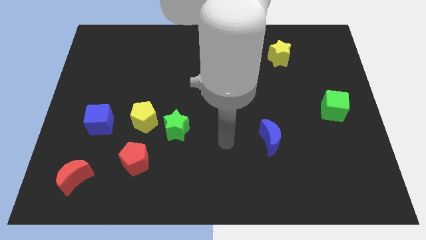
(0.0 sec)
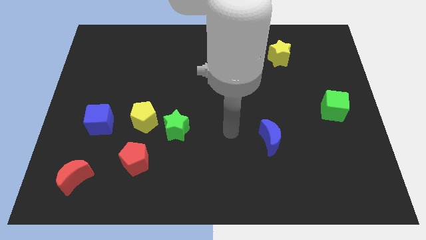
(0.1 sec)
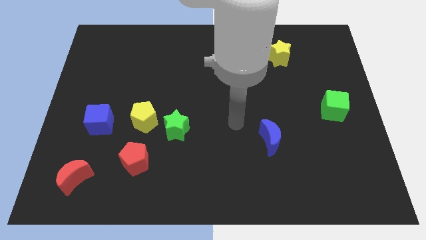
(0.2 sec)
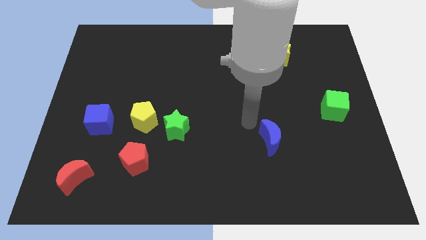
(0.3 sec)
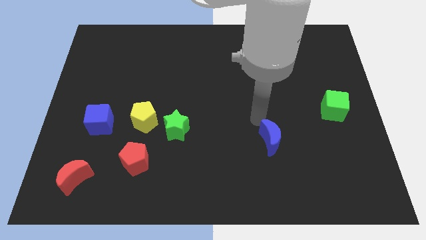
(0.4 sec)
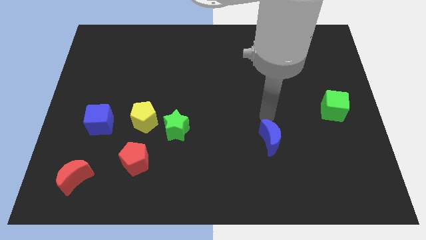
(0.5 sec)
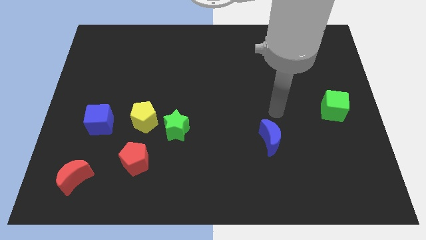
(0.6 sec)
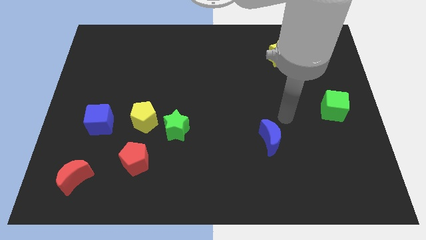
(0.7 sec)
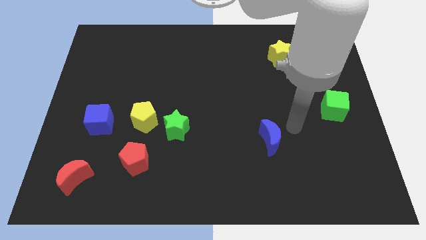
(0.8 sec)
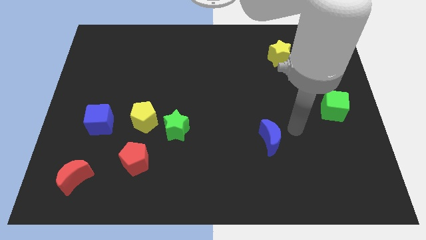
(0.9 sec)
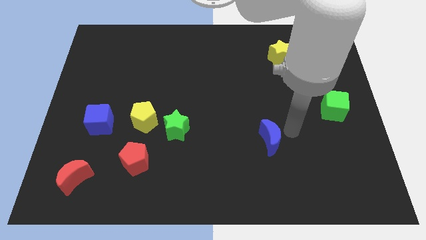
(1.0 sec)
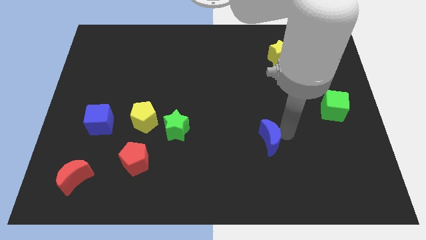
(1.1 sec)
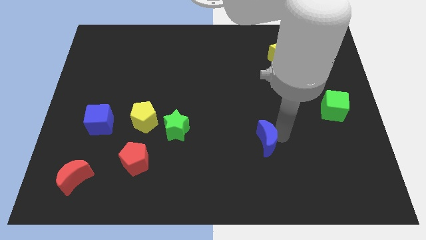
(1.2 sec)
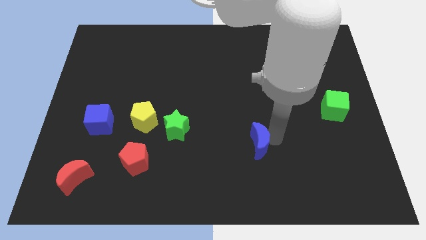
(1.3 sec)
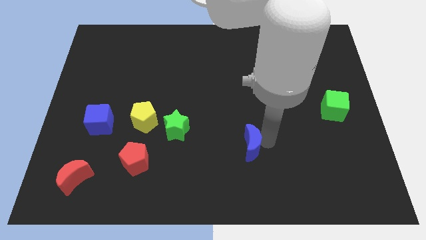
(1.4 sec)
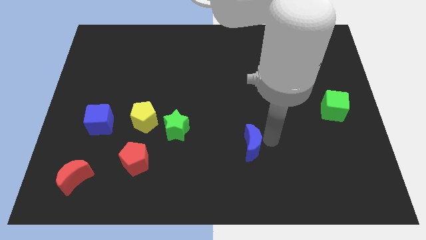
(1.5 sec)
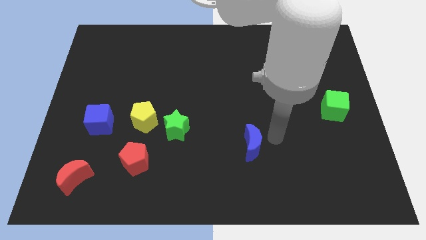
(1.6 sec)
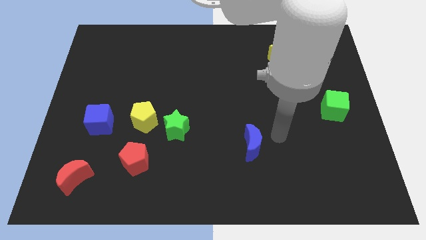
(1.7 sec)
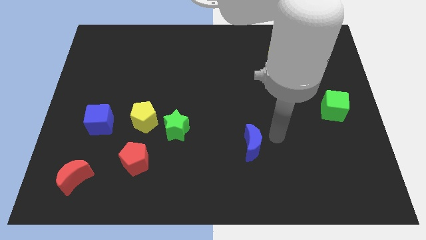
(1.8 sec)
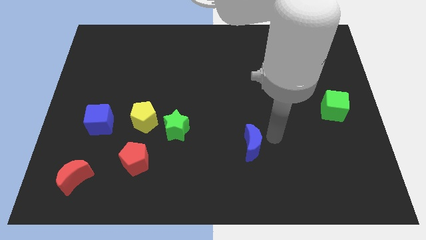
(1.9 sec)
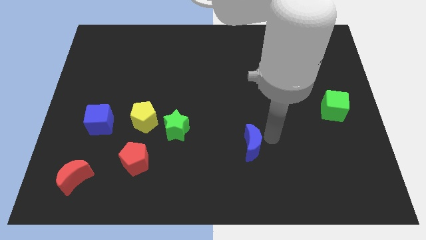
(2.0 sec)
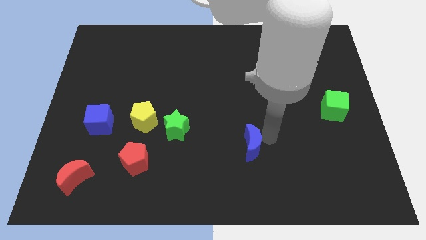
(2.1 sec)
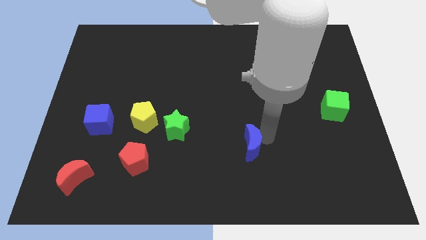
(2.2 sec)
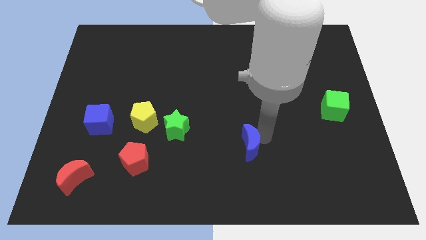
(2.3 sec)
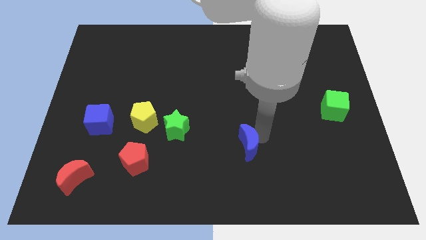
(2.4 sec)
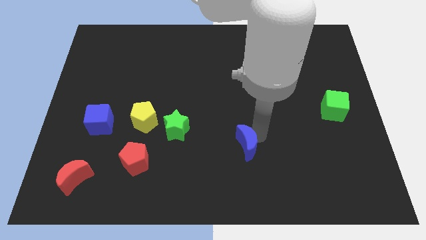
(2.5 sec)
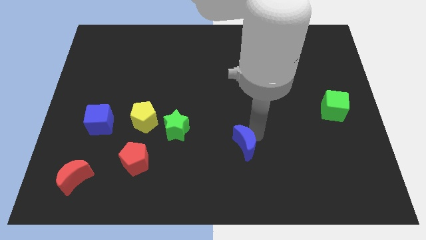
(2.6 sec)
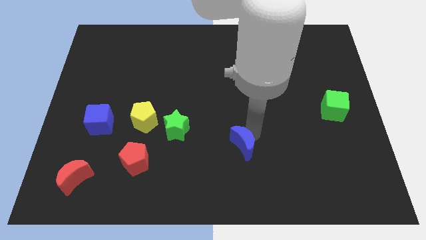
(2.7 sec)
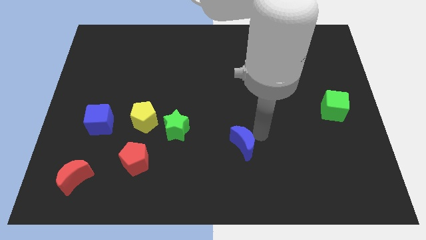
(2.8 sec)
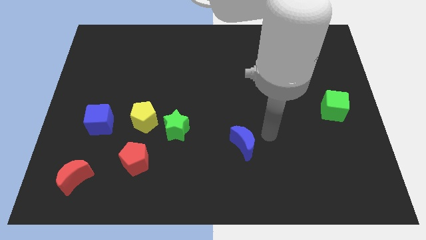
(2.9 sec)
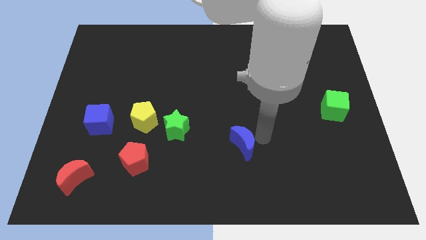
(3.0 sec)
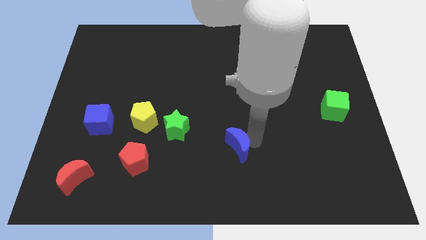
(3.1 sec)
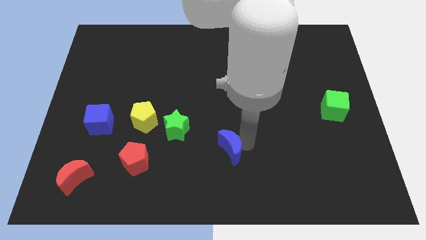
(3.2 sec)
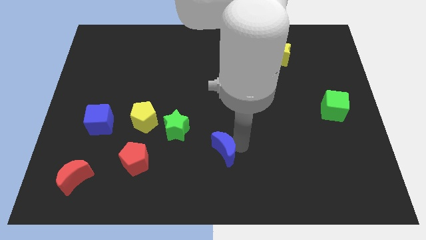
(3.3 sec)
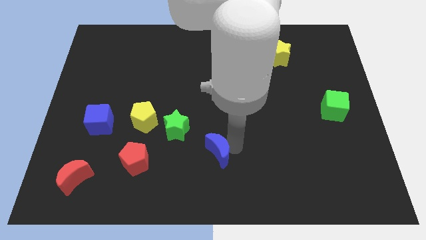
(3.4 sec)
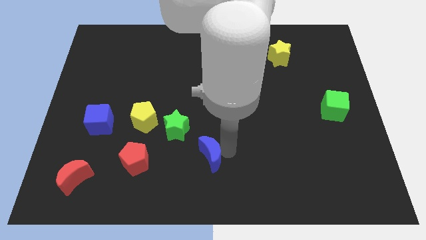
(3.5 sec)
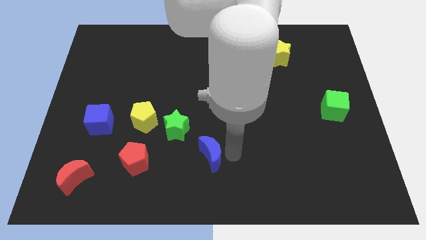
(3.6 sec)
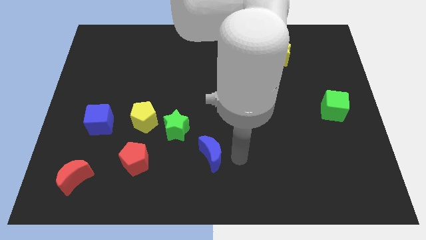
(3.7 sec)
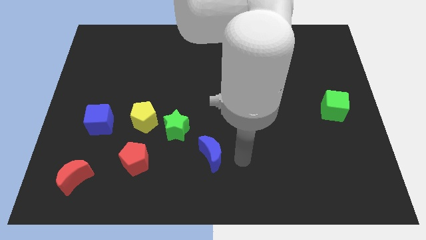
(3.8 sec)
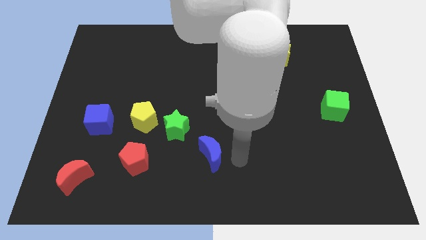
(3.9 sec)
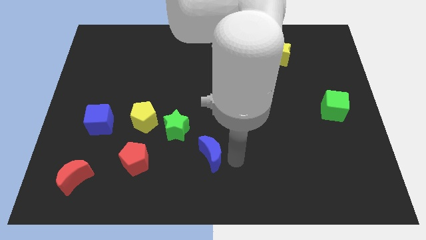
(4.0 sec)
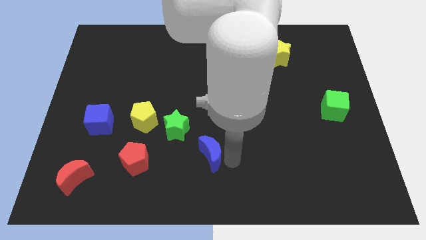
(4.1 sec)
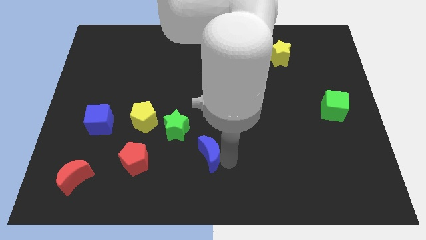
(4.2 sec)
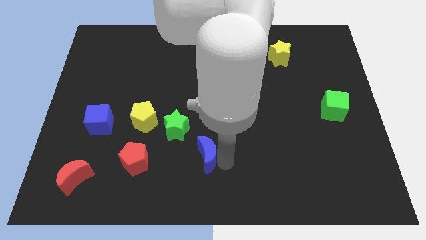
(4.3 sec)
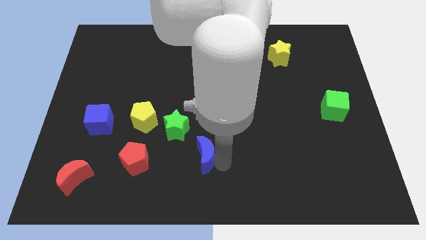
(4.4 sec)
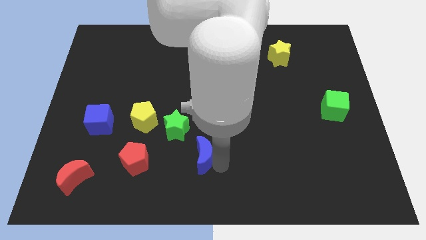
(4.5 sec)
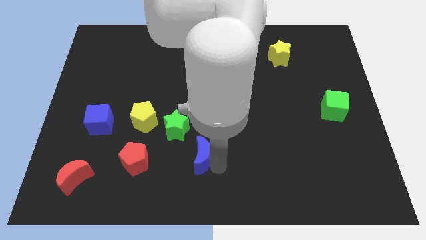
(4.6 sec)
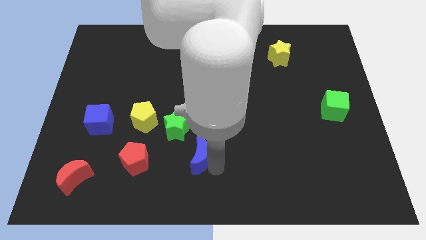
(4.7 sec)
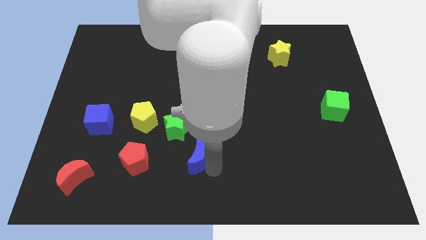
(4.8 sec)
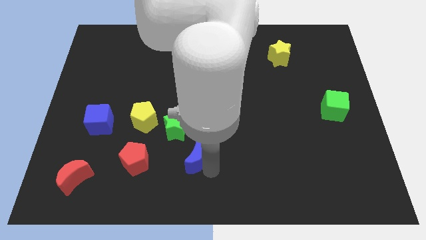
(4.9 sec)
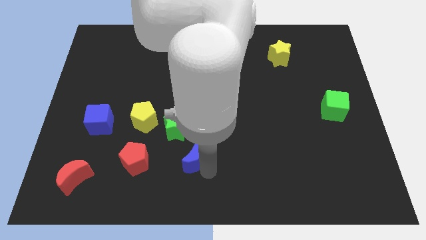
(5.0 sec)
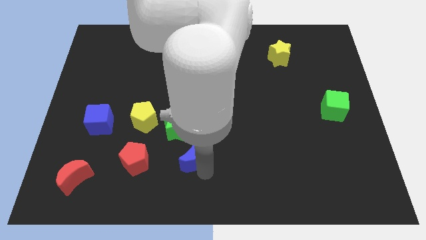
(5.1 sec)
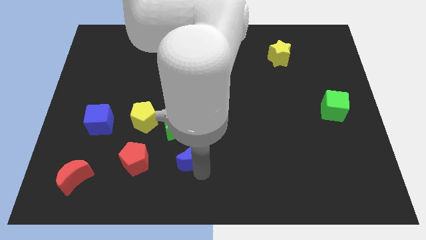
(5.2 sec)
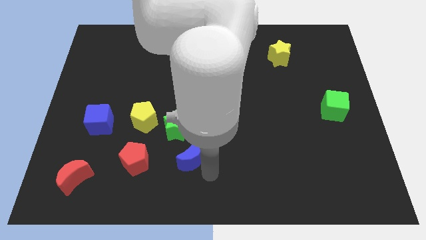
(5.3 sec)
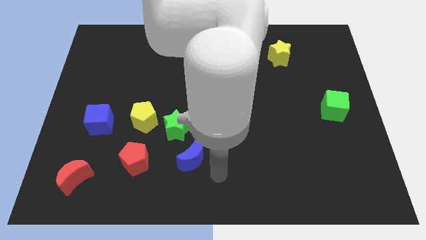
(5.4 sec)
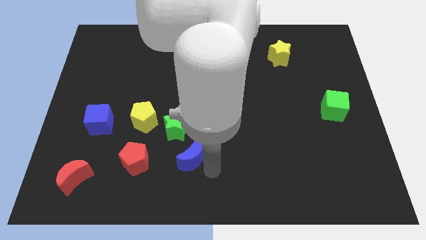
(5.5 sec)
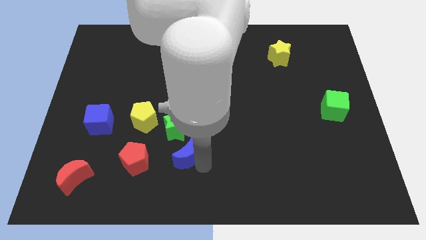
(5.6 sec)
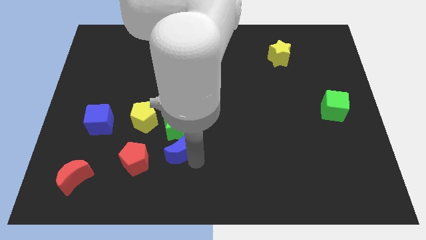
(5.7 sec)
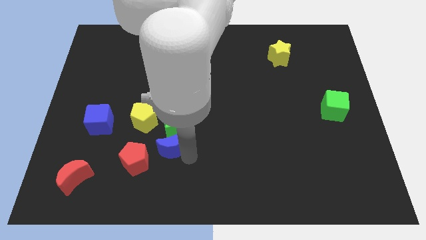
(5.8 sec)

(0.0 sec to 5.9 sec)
move the blue moon diagonally up and to the right of the red pentagon

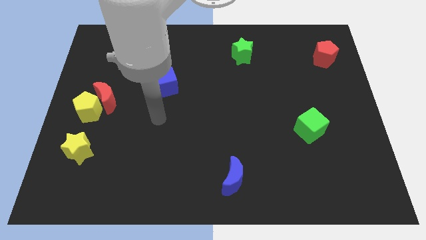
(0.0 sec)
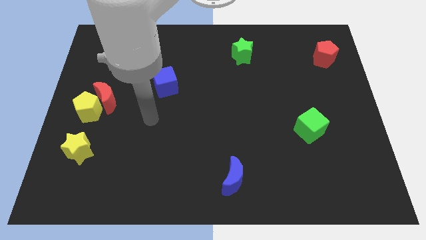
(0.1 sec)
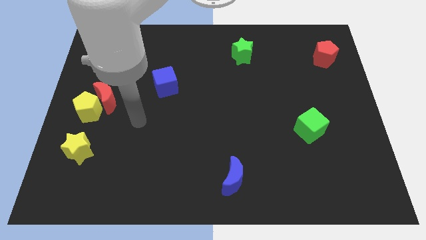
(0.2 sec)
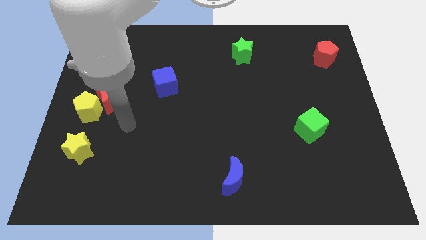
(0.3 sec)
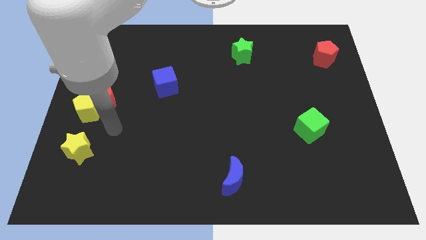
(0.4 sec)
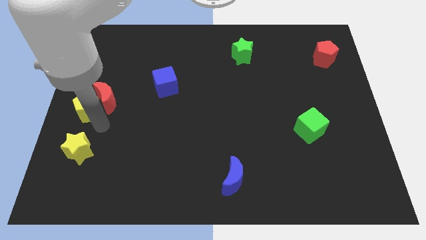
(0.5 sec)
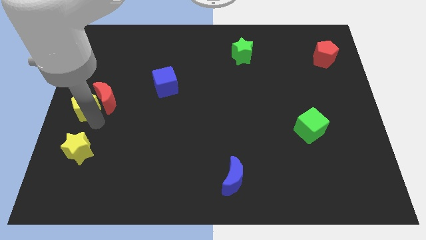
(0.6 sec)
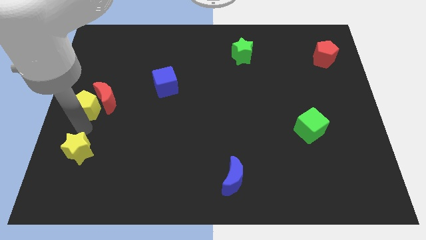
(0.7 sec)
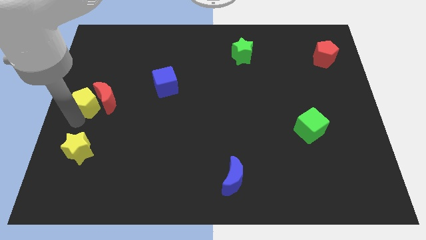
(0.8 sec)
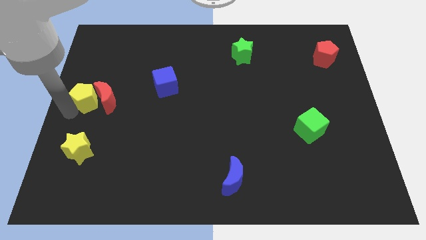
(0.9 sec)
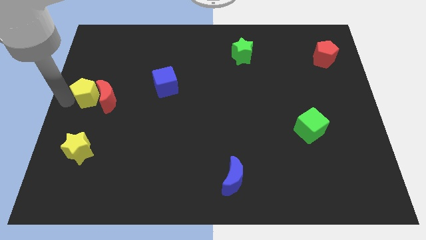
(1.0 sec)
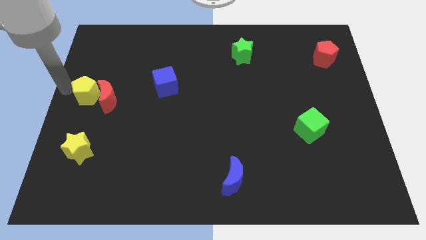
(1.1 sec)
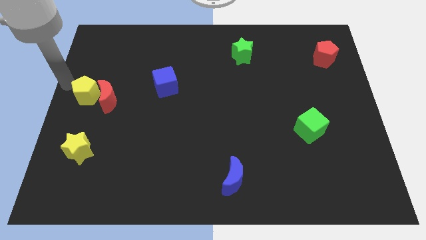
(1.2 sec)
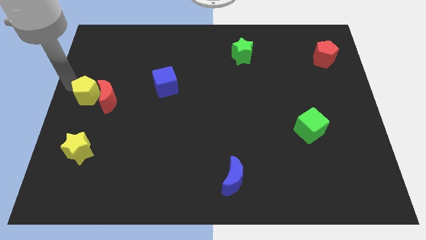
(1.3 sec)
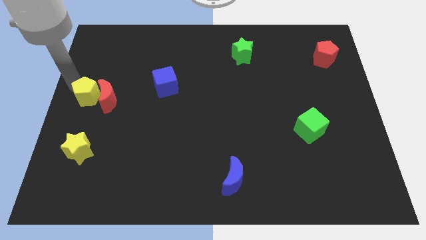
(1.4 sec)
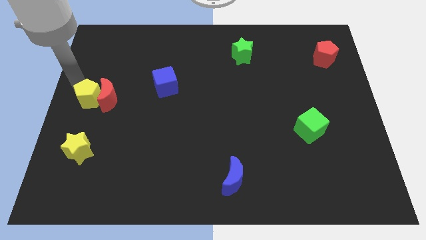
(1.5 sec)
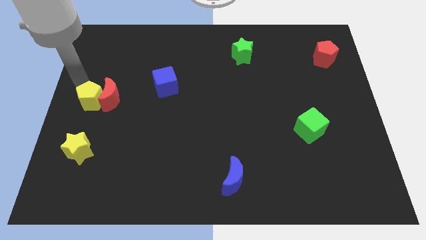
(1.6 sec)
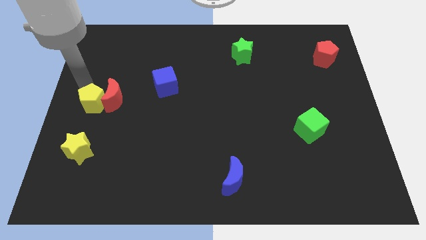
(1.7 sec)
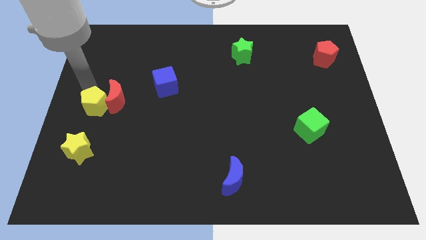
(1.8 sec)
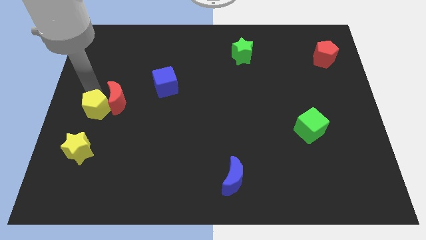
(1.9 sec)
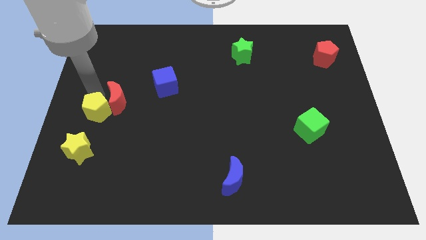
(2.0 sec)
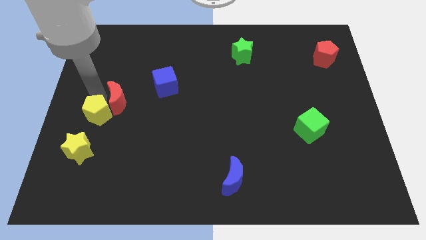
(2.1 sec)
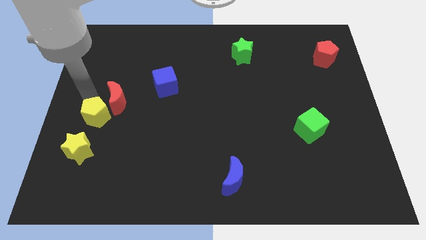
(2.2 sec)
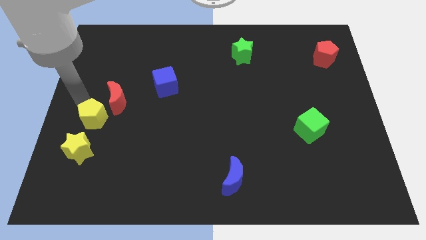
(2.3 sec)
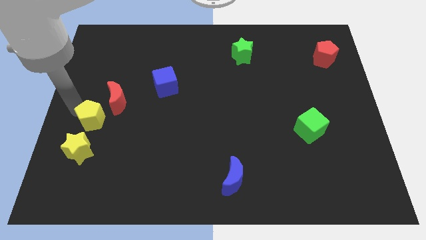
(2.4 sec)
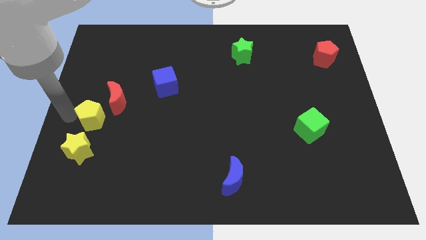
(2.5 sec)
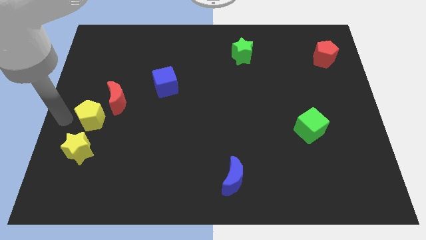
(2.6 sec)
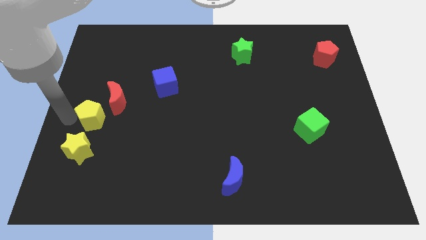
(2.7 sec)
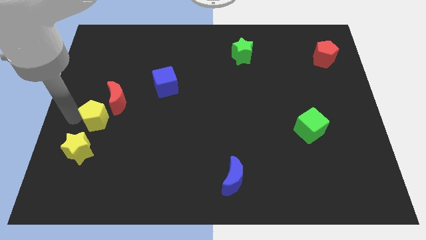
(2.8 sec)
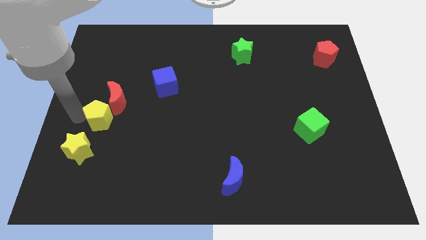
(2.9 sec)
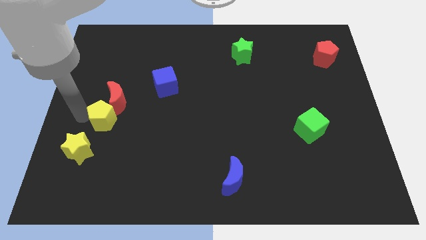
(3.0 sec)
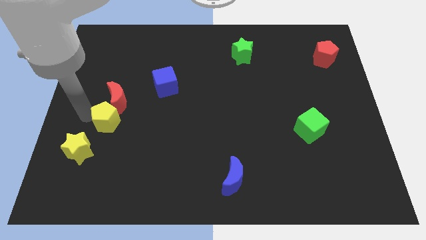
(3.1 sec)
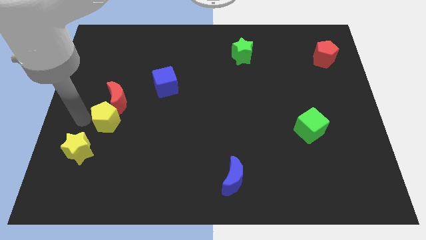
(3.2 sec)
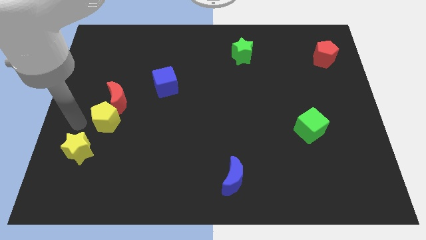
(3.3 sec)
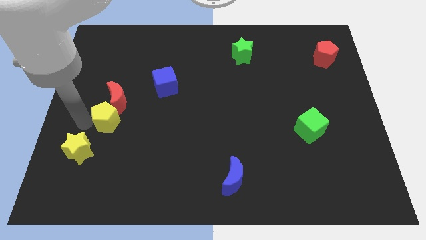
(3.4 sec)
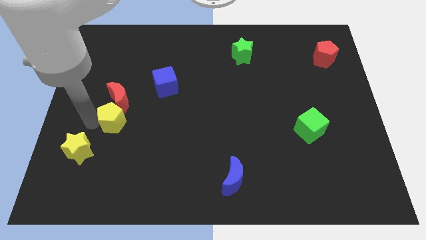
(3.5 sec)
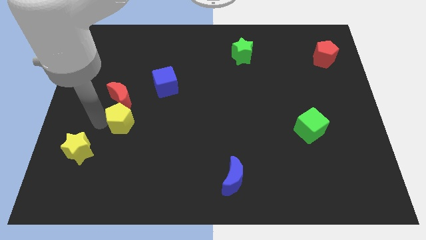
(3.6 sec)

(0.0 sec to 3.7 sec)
move the yellow pentagon to the bottom right side of the red moon
